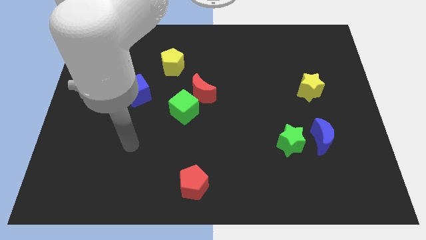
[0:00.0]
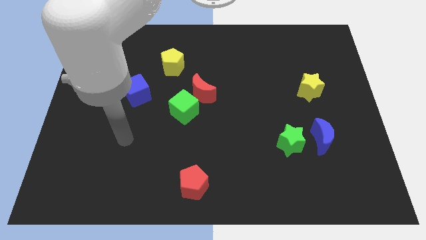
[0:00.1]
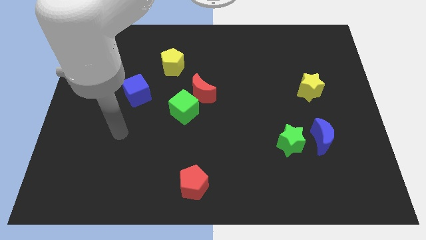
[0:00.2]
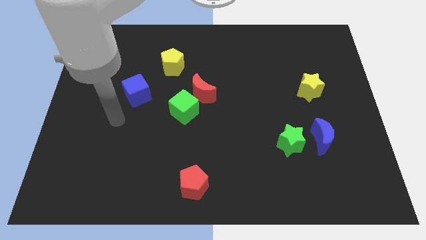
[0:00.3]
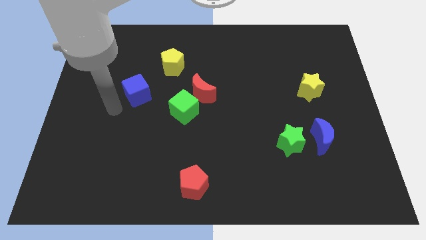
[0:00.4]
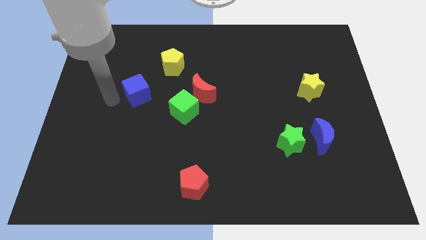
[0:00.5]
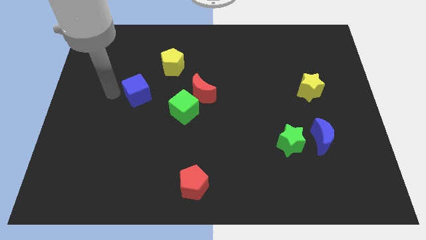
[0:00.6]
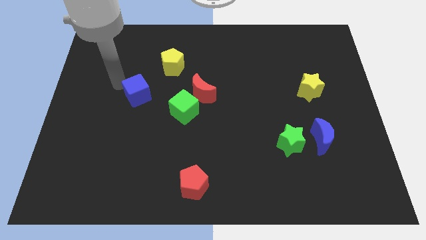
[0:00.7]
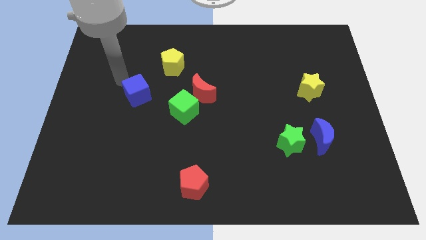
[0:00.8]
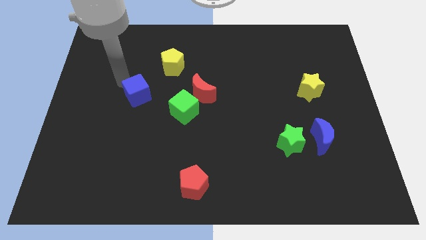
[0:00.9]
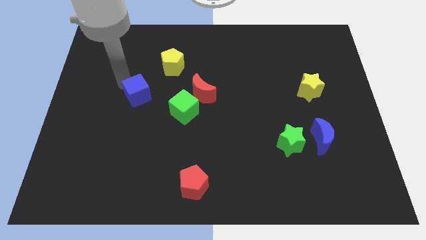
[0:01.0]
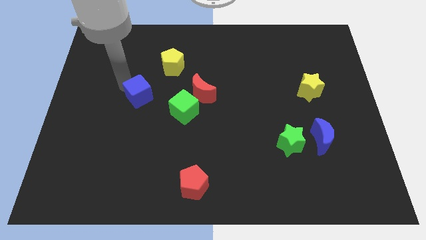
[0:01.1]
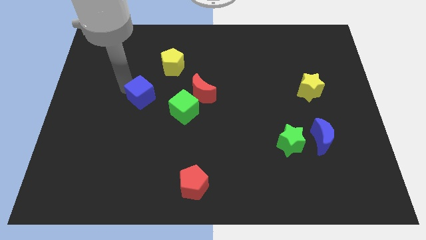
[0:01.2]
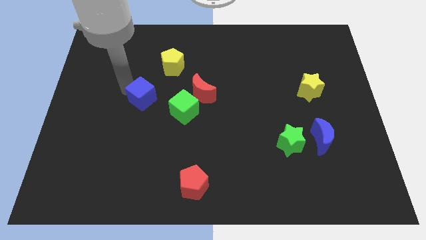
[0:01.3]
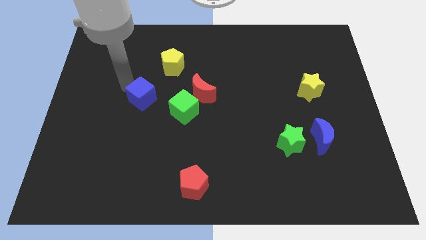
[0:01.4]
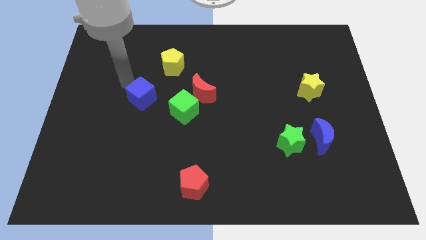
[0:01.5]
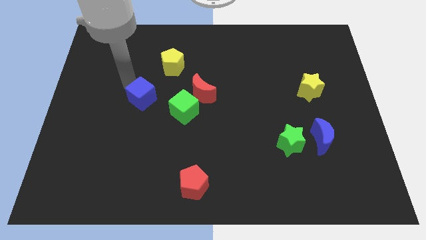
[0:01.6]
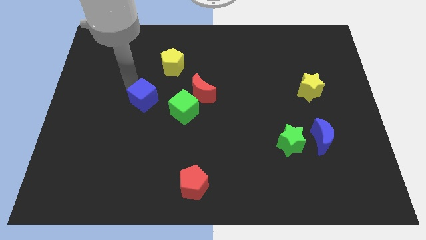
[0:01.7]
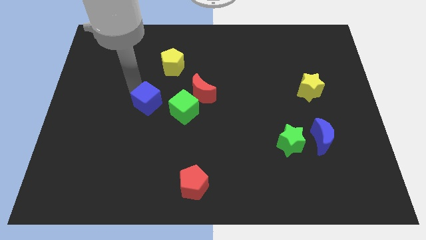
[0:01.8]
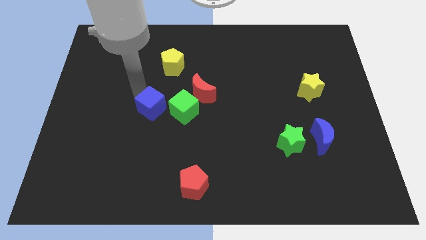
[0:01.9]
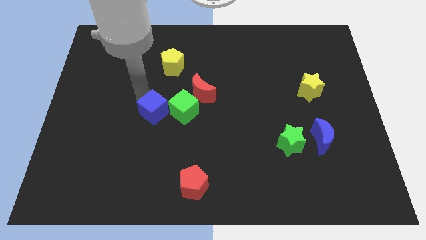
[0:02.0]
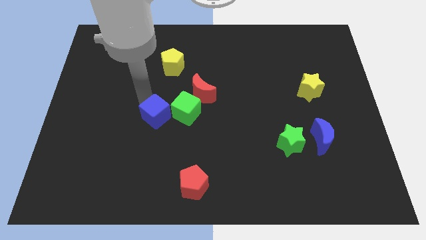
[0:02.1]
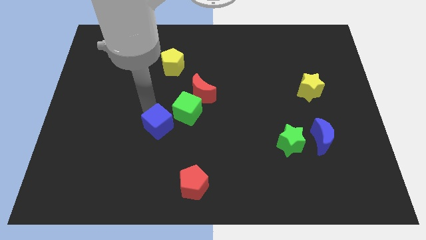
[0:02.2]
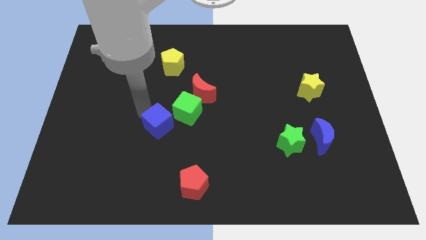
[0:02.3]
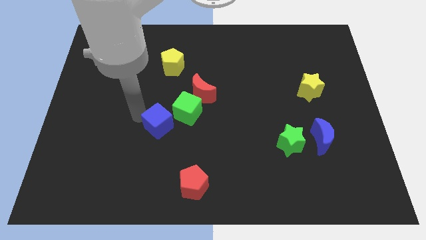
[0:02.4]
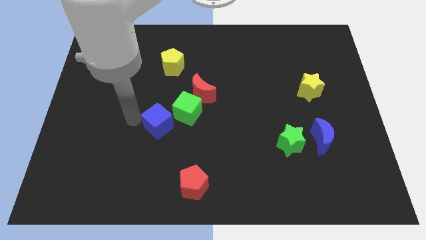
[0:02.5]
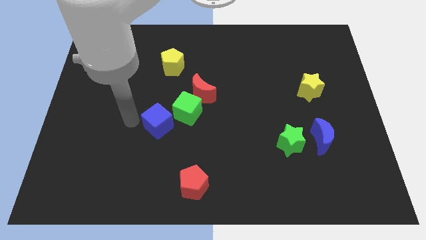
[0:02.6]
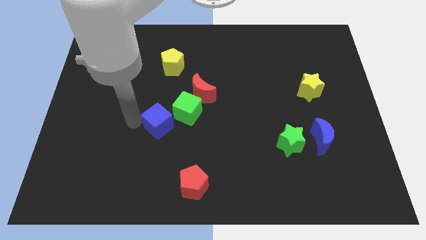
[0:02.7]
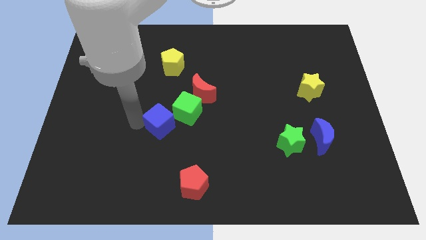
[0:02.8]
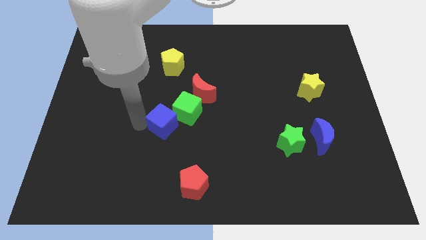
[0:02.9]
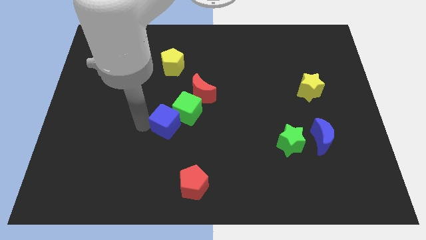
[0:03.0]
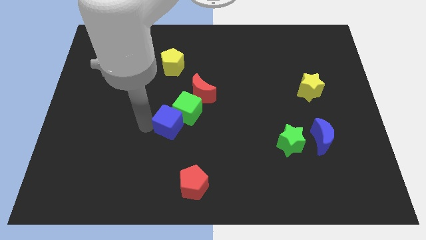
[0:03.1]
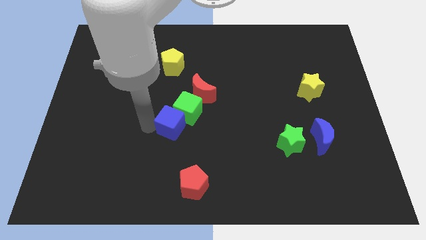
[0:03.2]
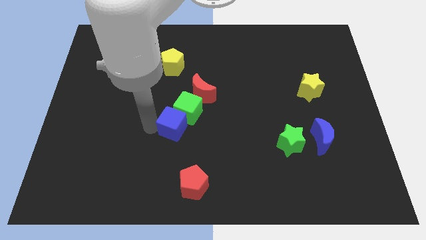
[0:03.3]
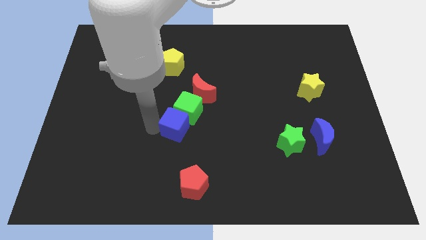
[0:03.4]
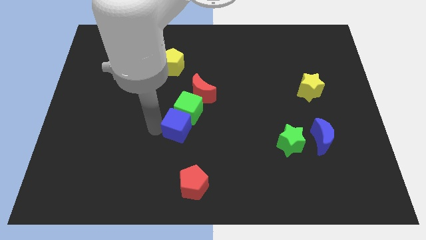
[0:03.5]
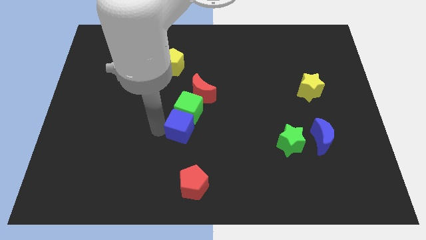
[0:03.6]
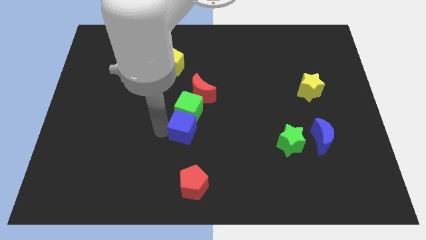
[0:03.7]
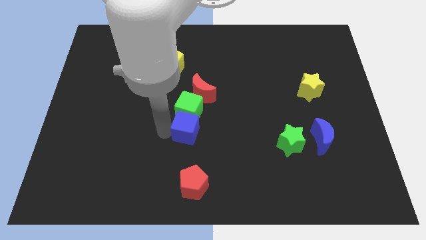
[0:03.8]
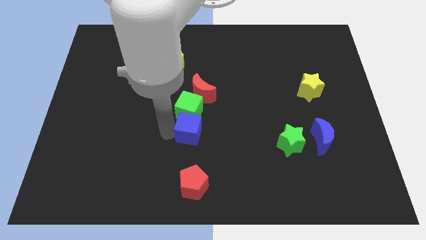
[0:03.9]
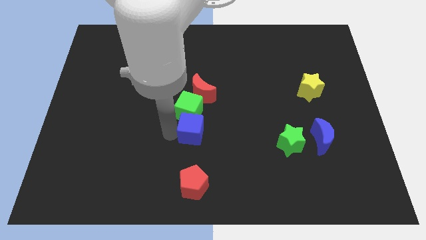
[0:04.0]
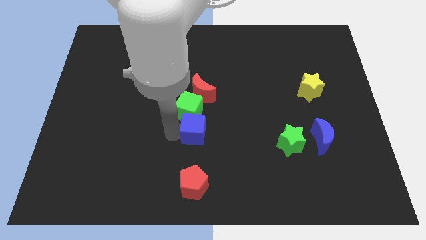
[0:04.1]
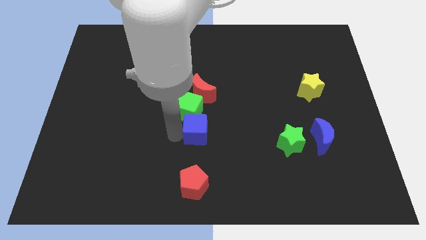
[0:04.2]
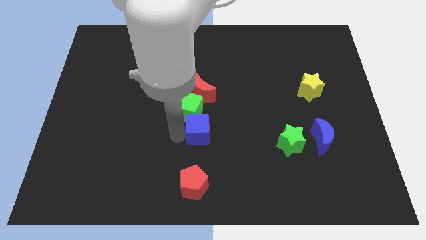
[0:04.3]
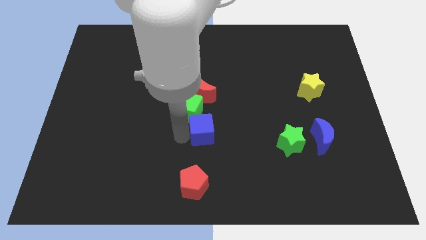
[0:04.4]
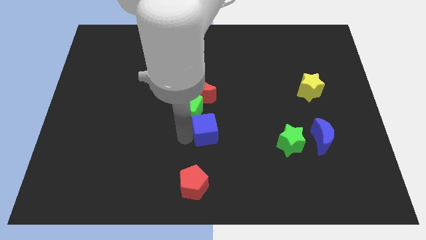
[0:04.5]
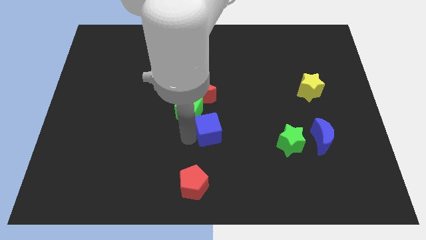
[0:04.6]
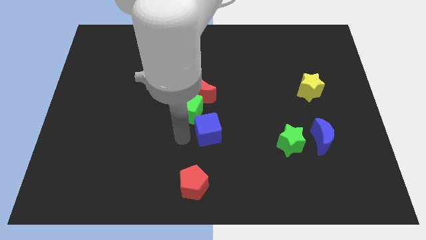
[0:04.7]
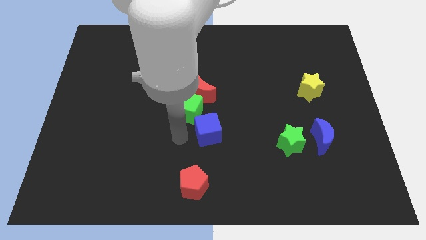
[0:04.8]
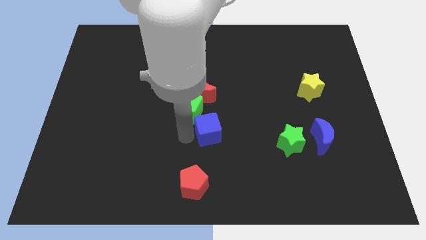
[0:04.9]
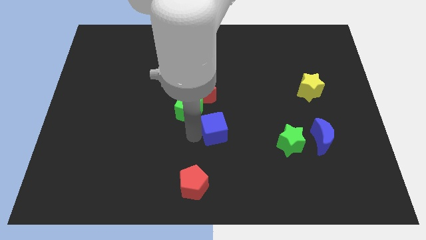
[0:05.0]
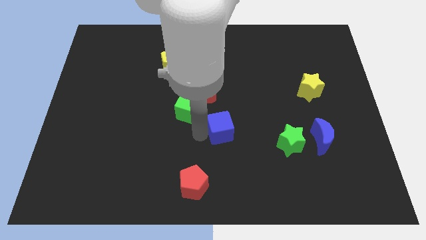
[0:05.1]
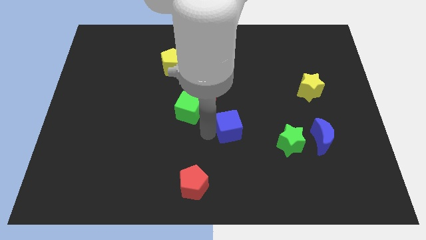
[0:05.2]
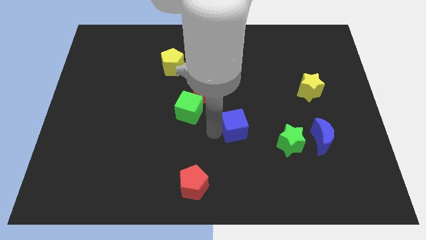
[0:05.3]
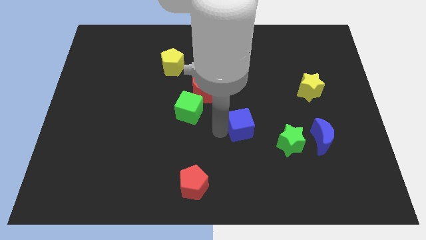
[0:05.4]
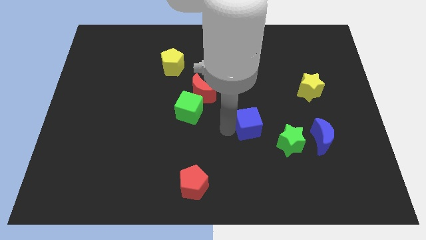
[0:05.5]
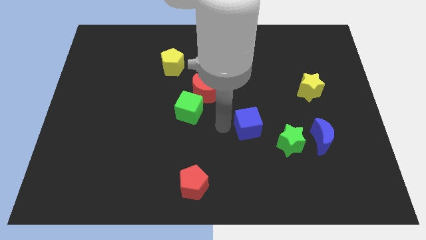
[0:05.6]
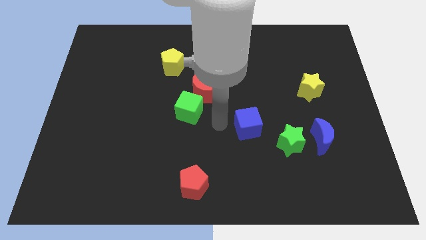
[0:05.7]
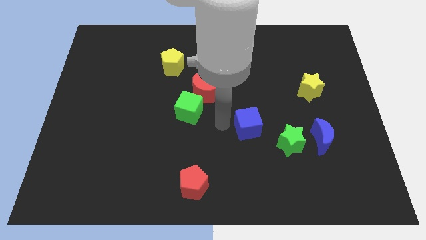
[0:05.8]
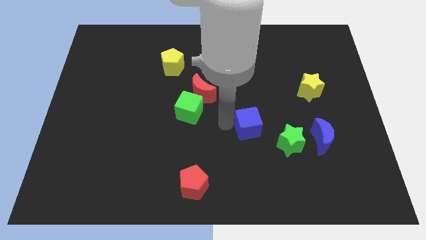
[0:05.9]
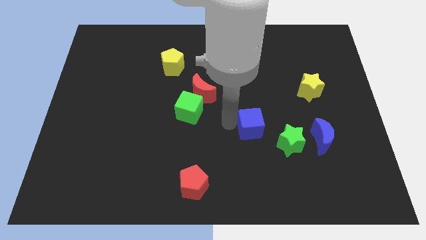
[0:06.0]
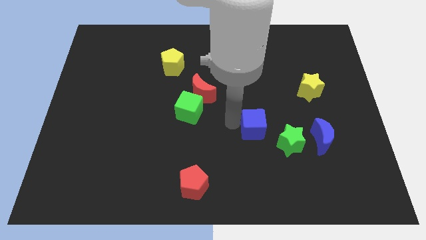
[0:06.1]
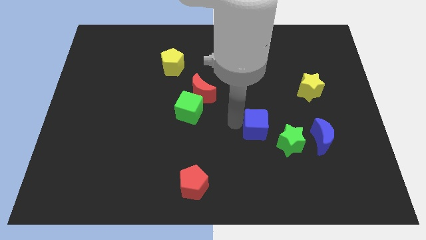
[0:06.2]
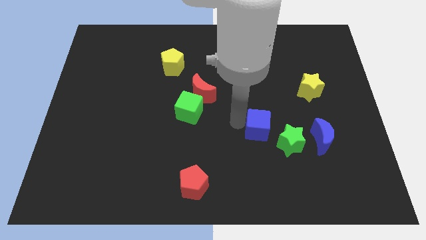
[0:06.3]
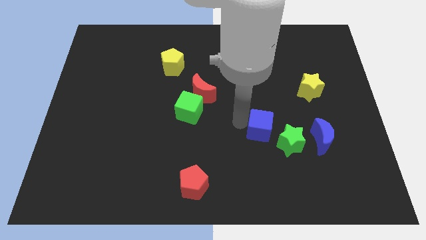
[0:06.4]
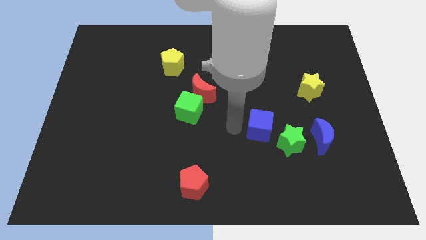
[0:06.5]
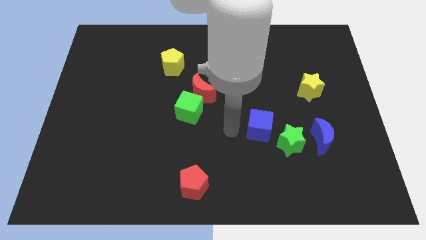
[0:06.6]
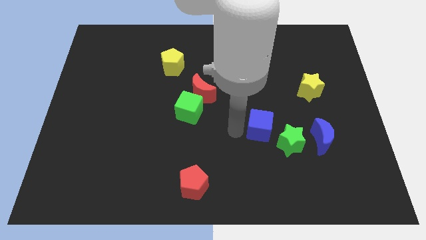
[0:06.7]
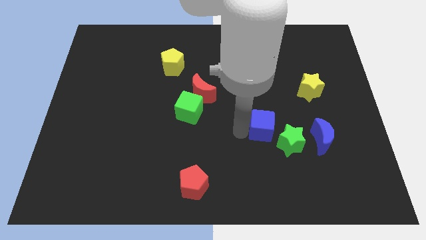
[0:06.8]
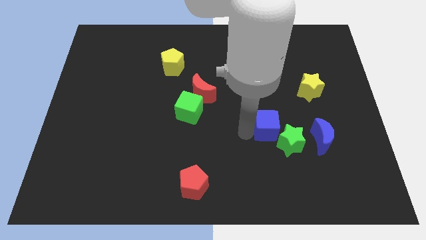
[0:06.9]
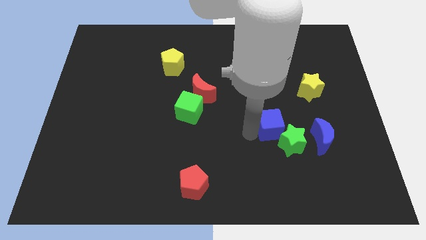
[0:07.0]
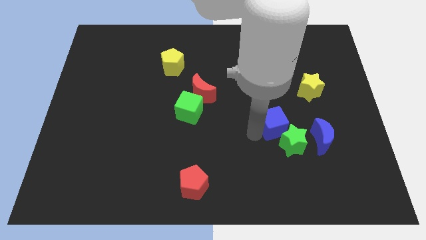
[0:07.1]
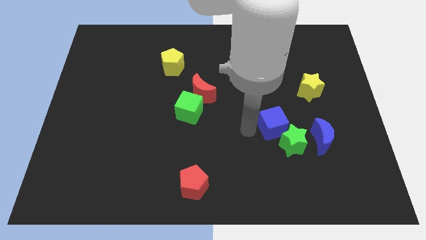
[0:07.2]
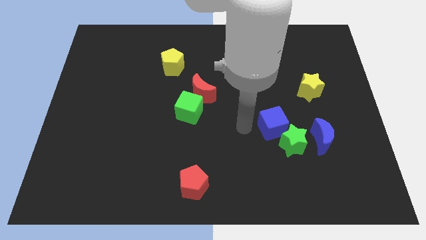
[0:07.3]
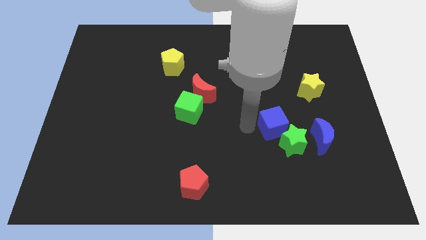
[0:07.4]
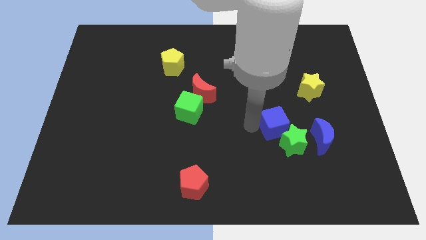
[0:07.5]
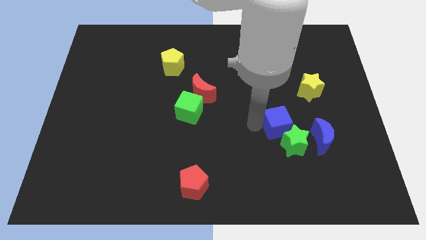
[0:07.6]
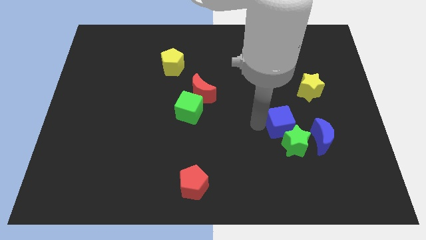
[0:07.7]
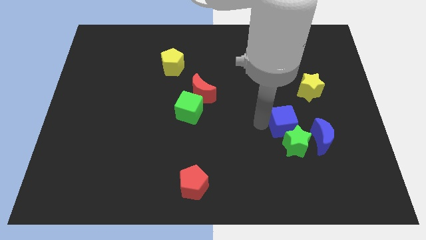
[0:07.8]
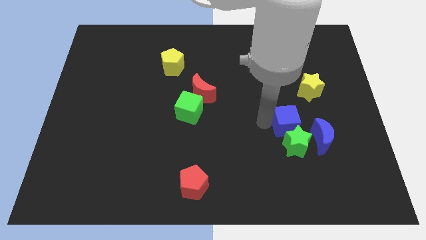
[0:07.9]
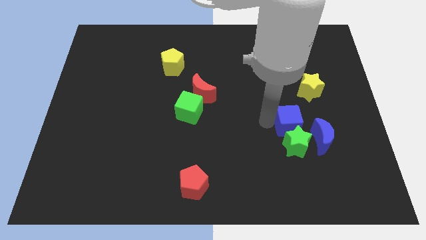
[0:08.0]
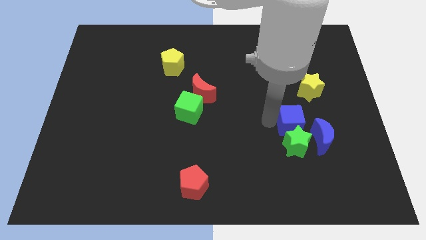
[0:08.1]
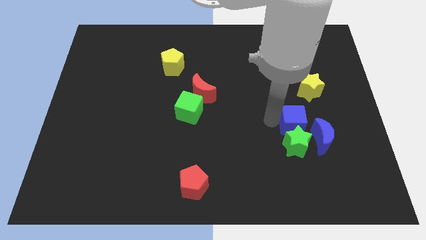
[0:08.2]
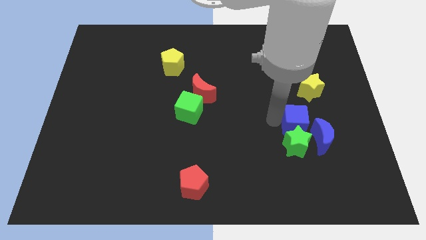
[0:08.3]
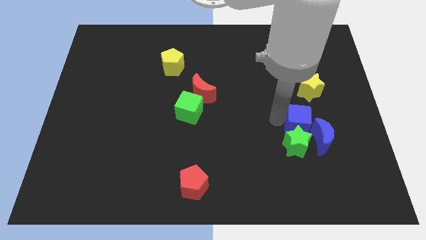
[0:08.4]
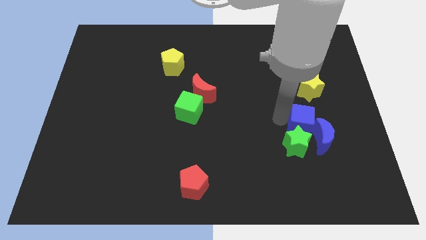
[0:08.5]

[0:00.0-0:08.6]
slide the blue cube to the blue moon
